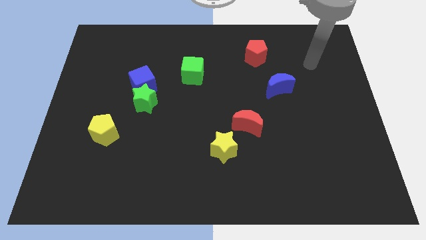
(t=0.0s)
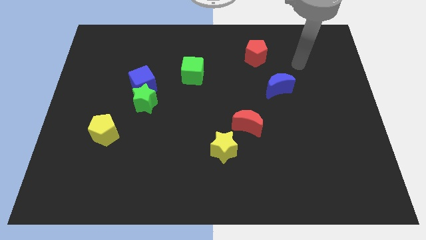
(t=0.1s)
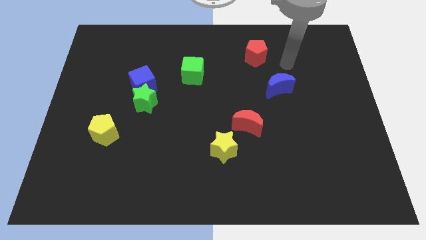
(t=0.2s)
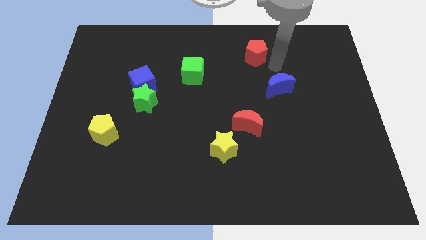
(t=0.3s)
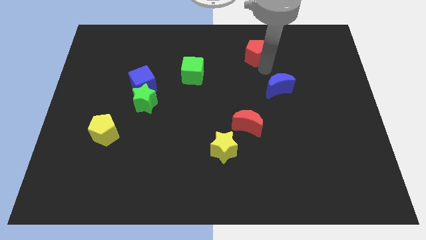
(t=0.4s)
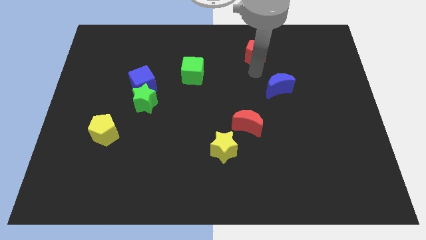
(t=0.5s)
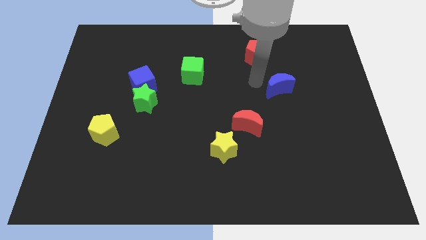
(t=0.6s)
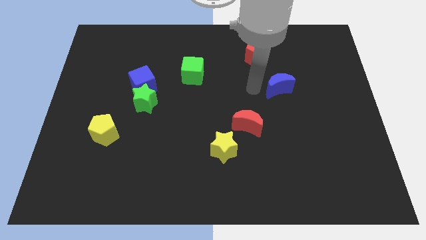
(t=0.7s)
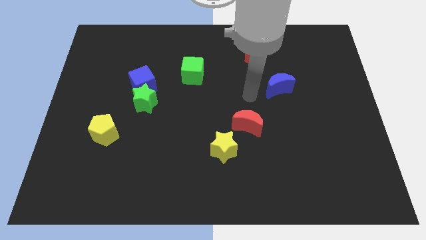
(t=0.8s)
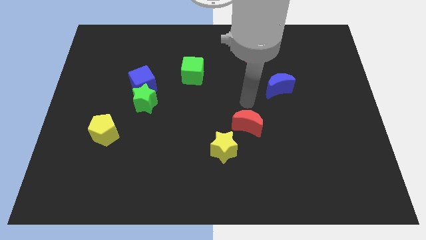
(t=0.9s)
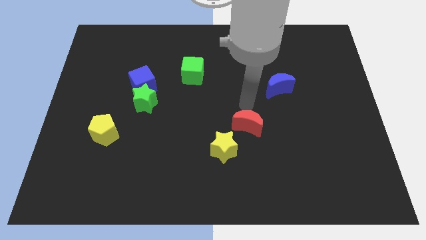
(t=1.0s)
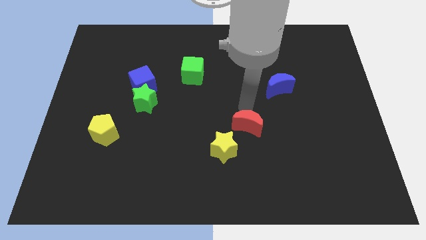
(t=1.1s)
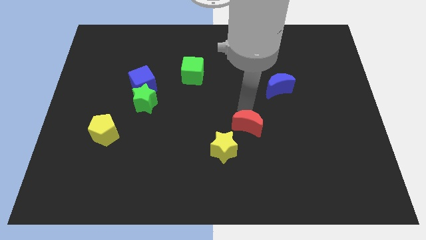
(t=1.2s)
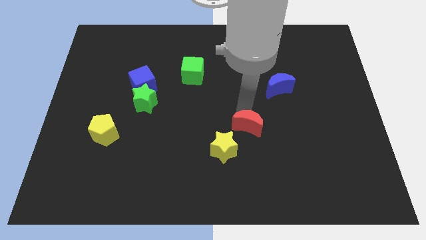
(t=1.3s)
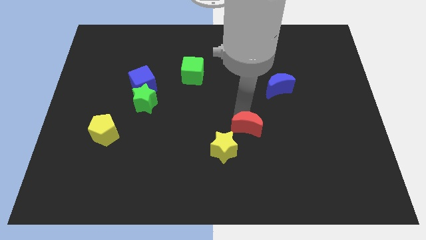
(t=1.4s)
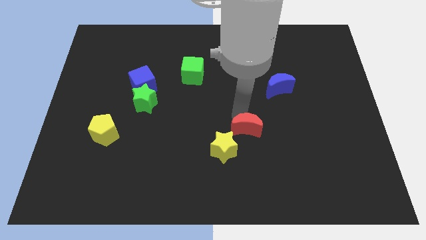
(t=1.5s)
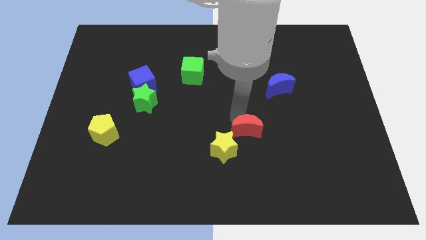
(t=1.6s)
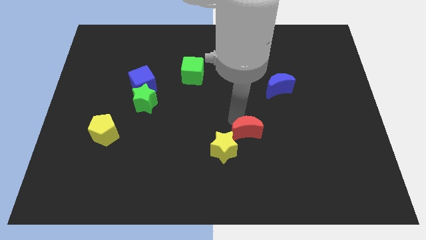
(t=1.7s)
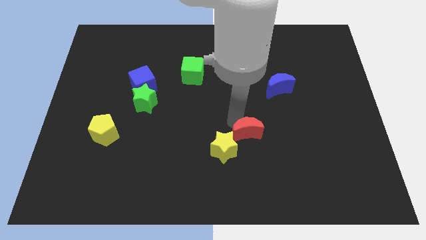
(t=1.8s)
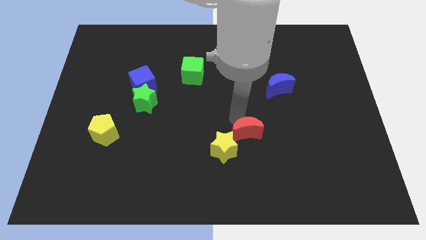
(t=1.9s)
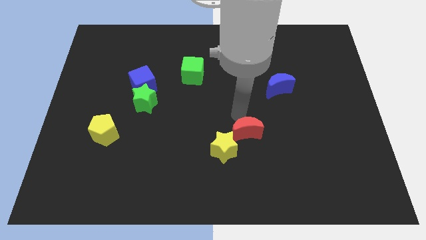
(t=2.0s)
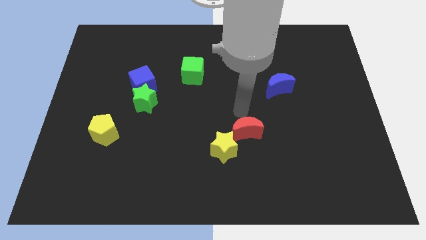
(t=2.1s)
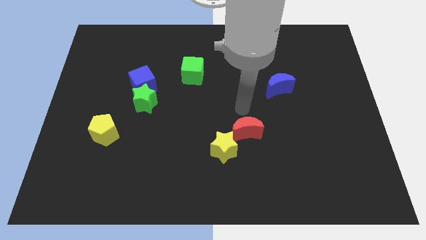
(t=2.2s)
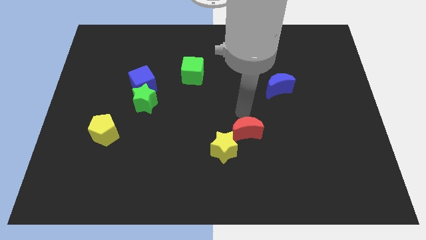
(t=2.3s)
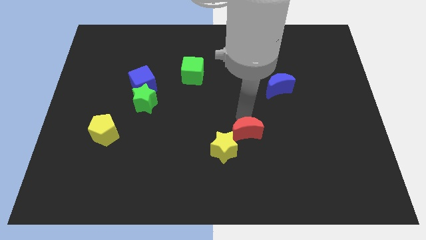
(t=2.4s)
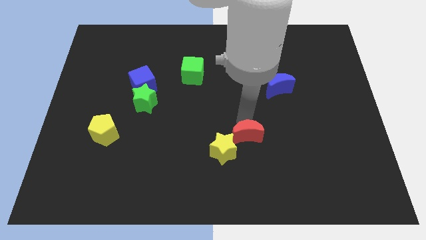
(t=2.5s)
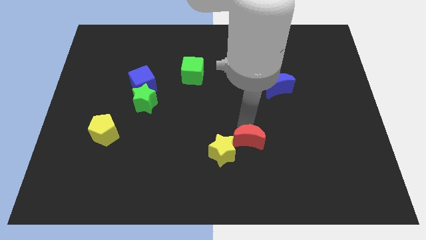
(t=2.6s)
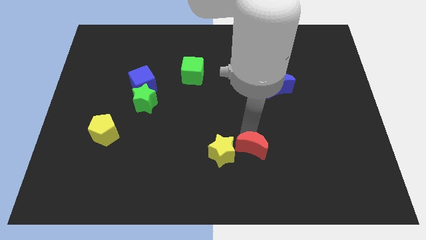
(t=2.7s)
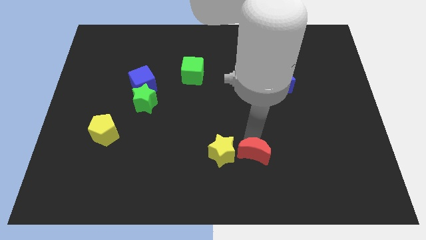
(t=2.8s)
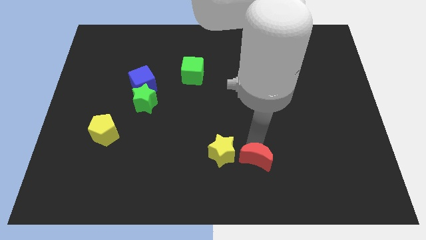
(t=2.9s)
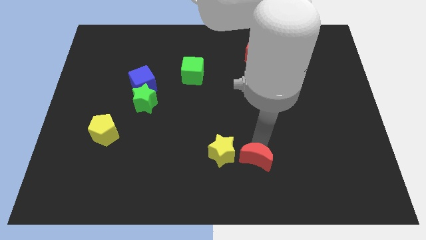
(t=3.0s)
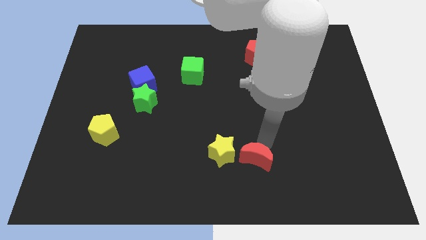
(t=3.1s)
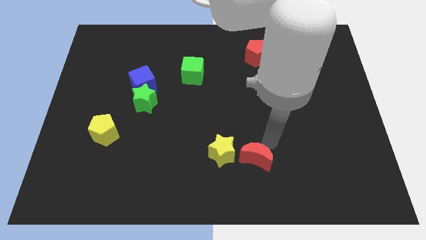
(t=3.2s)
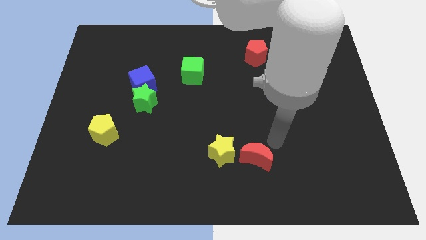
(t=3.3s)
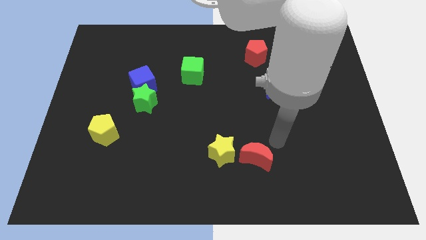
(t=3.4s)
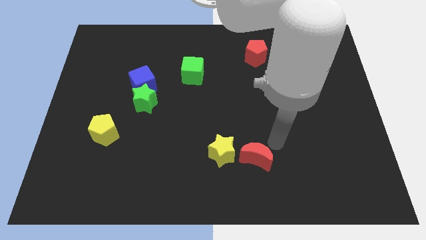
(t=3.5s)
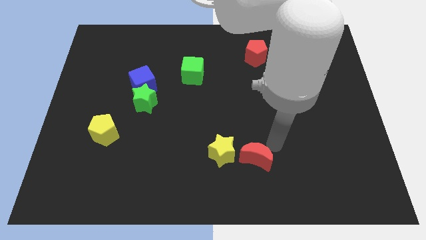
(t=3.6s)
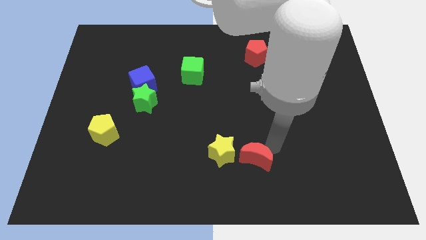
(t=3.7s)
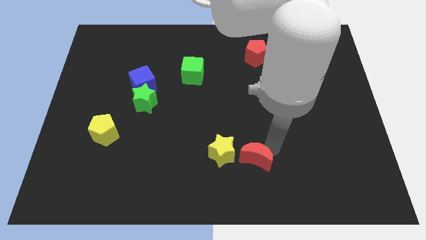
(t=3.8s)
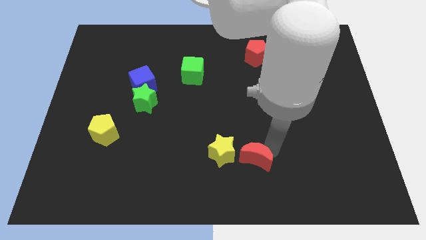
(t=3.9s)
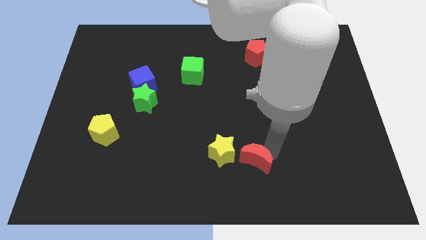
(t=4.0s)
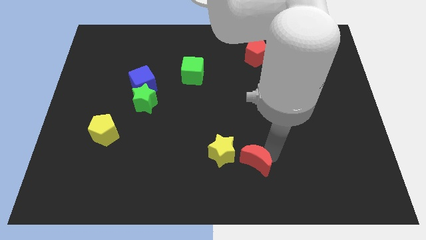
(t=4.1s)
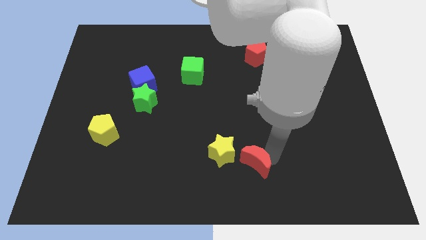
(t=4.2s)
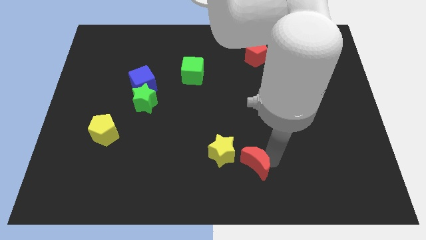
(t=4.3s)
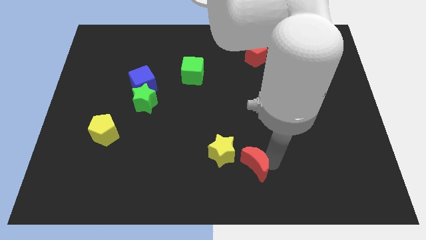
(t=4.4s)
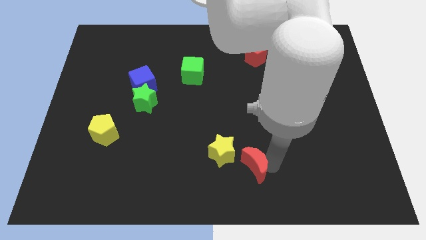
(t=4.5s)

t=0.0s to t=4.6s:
push the red moon to the bottom

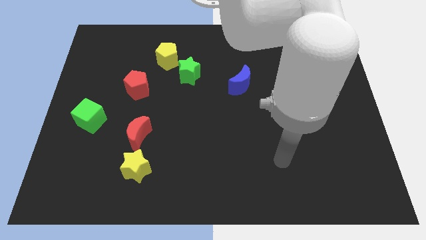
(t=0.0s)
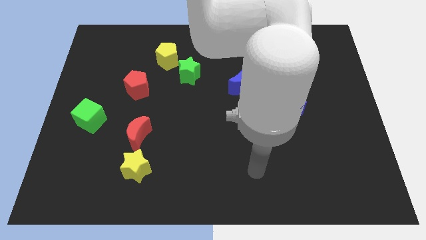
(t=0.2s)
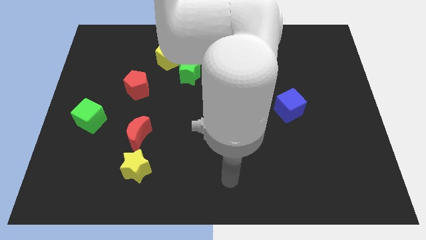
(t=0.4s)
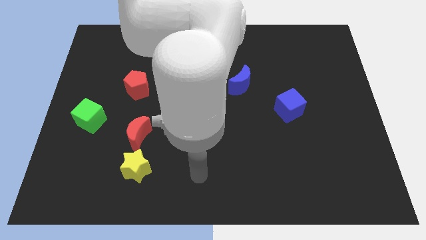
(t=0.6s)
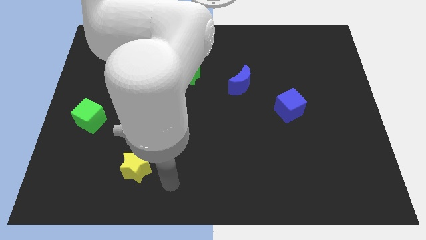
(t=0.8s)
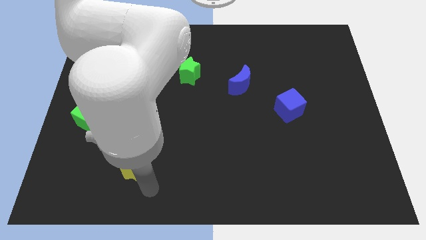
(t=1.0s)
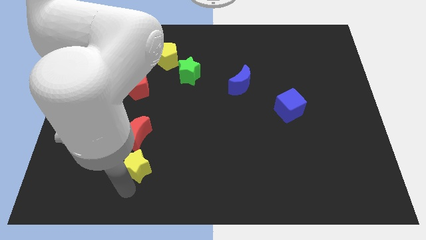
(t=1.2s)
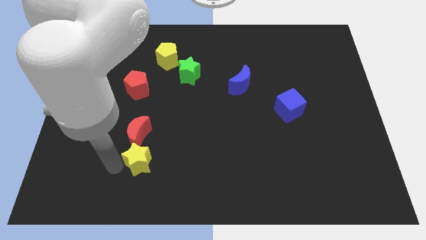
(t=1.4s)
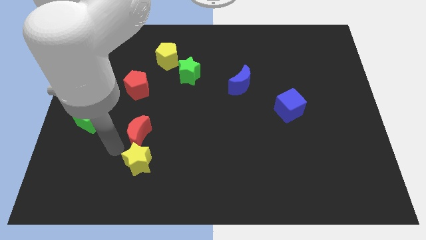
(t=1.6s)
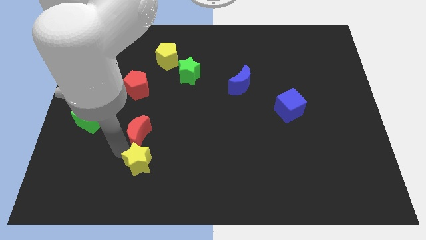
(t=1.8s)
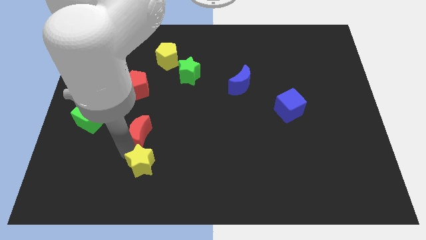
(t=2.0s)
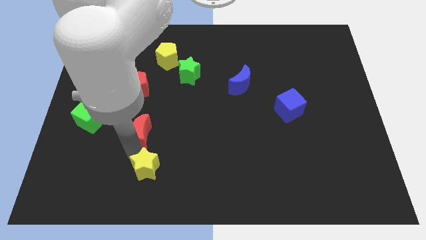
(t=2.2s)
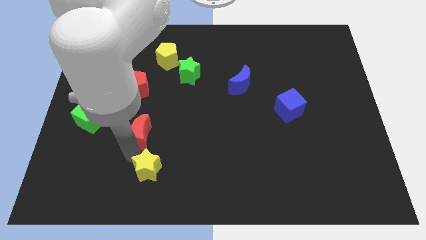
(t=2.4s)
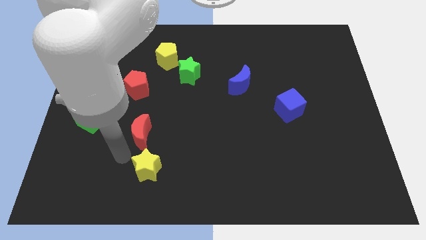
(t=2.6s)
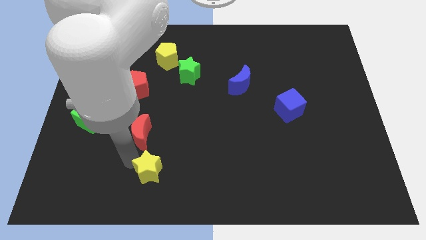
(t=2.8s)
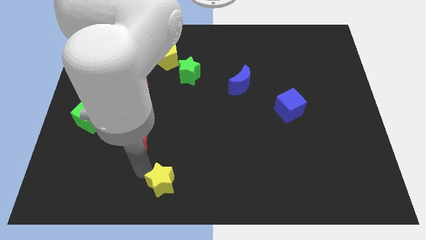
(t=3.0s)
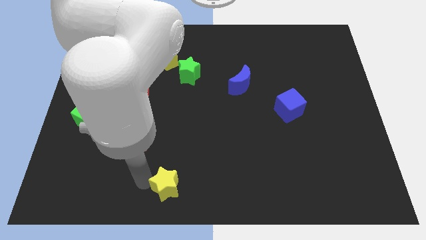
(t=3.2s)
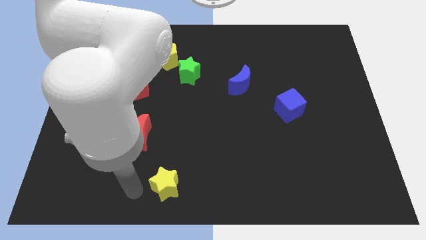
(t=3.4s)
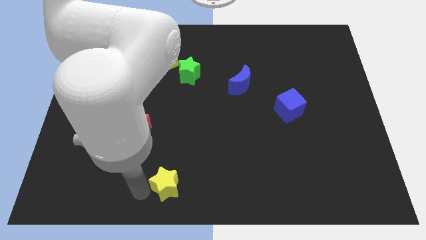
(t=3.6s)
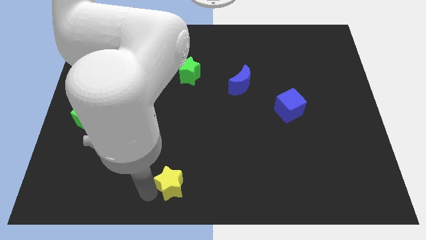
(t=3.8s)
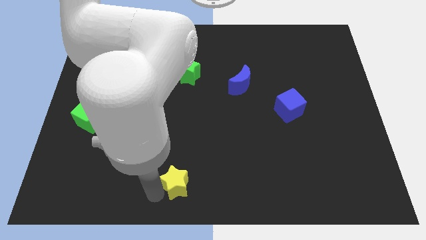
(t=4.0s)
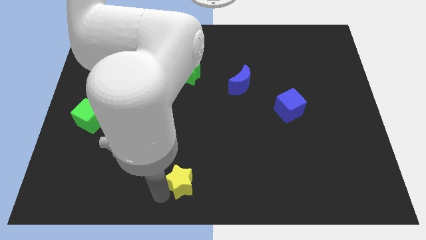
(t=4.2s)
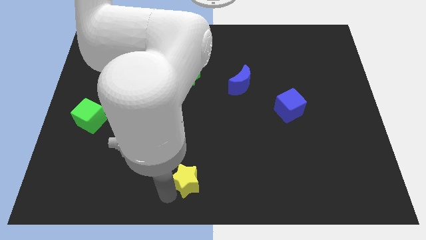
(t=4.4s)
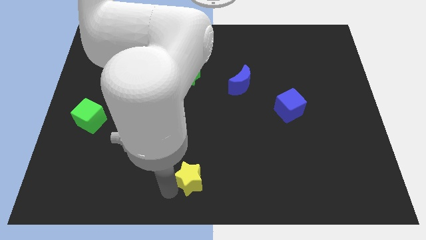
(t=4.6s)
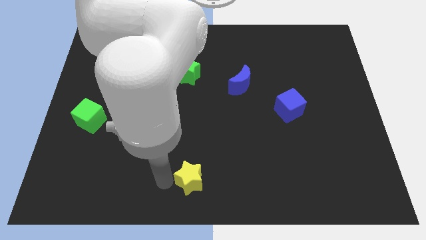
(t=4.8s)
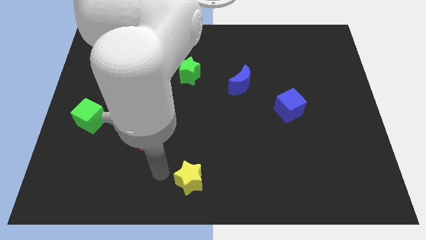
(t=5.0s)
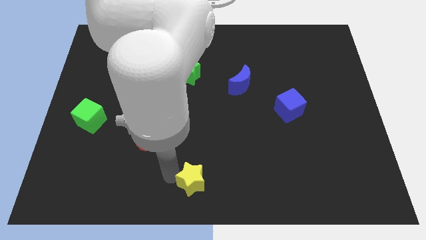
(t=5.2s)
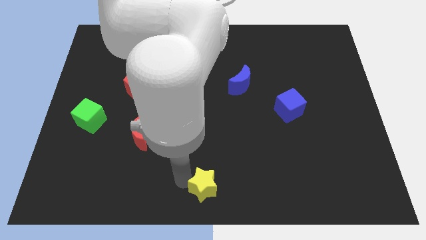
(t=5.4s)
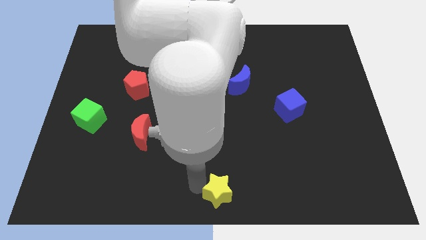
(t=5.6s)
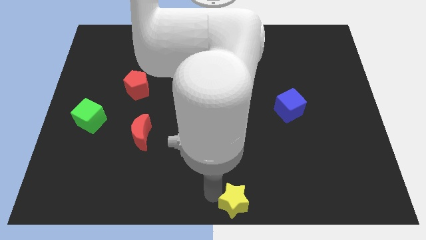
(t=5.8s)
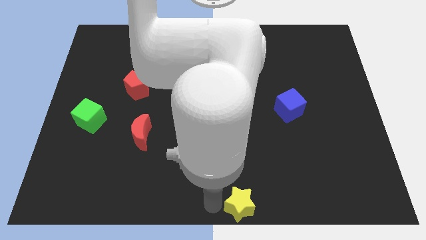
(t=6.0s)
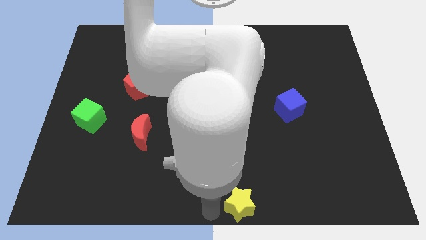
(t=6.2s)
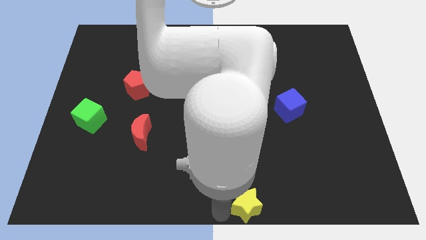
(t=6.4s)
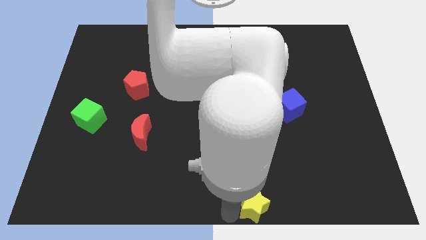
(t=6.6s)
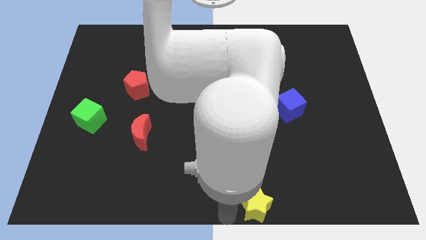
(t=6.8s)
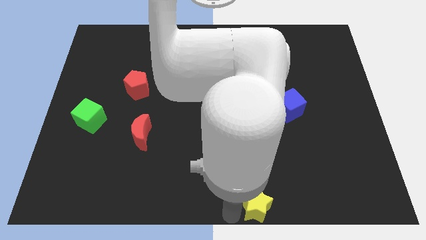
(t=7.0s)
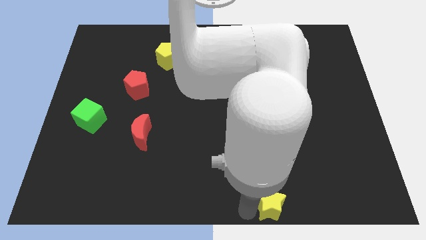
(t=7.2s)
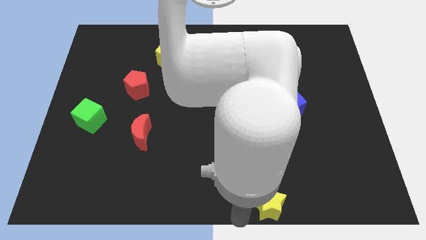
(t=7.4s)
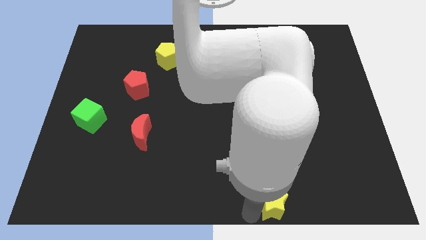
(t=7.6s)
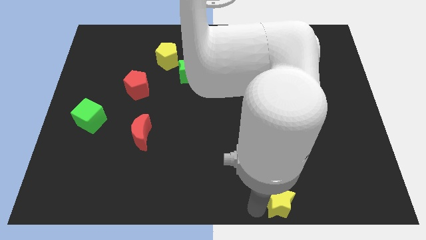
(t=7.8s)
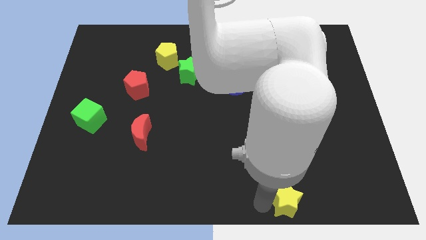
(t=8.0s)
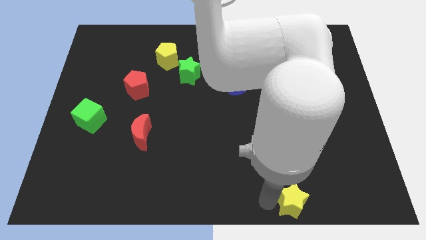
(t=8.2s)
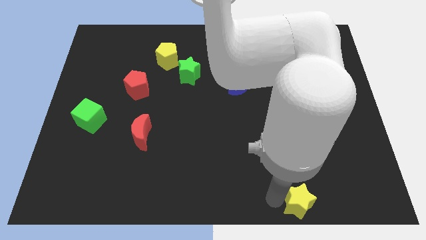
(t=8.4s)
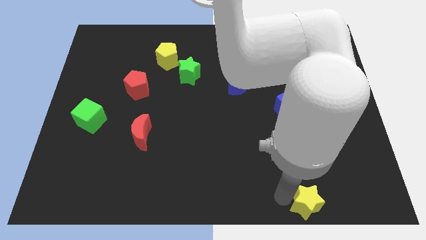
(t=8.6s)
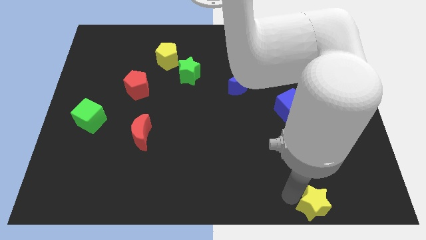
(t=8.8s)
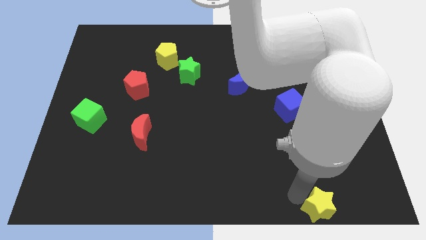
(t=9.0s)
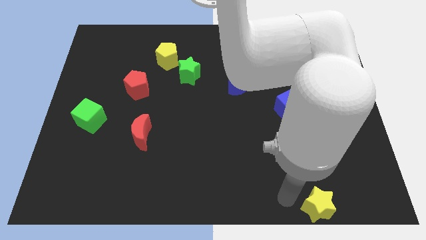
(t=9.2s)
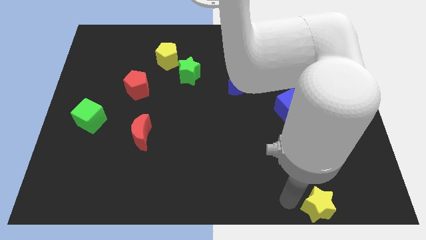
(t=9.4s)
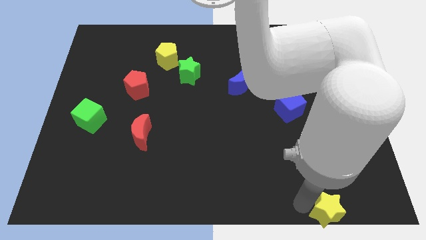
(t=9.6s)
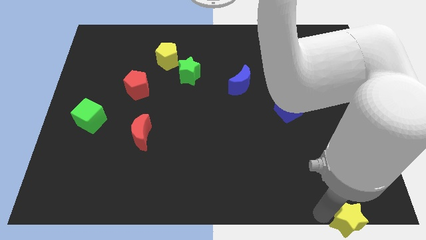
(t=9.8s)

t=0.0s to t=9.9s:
put the yellow star to the bottom right of the board
